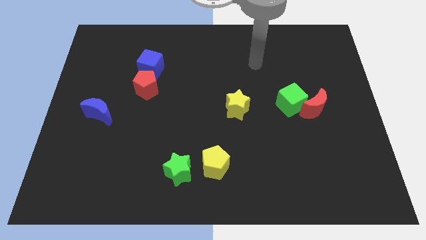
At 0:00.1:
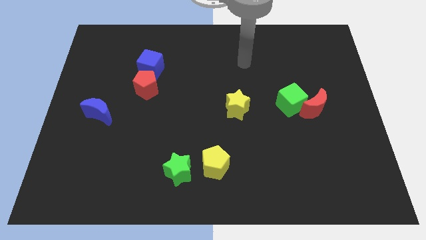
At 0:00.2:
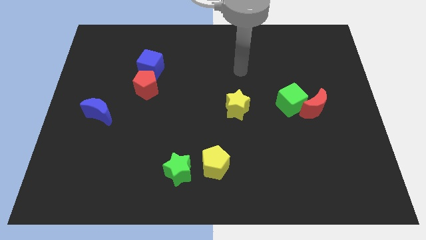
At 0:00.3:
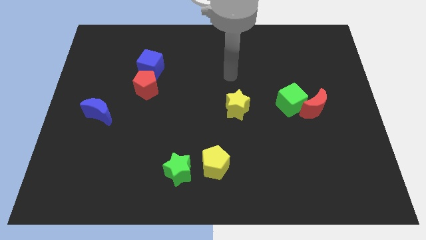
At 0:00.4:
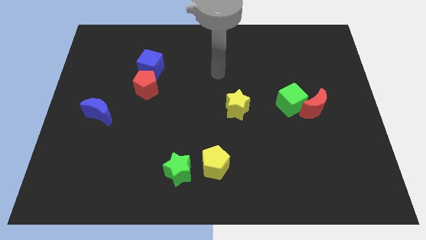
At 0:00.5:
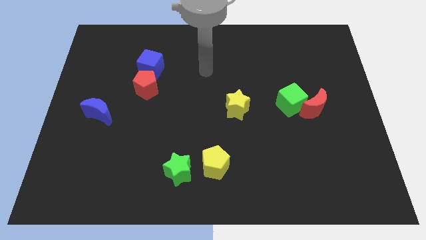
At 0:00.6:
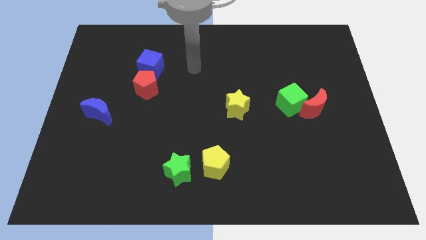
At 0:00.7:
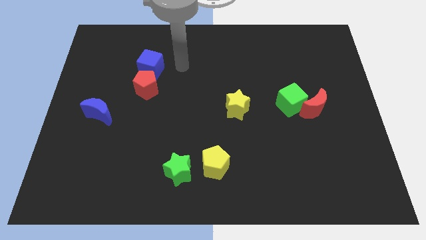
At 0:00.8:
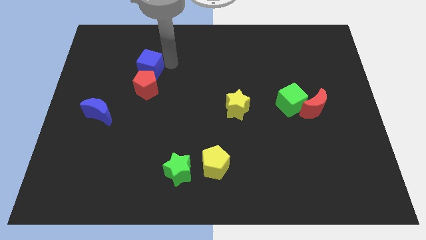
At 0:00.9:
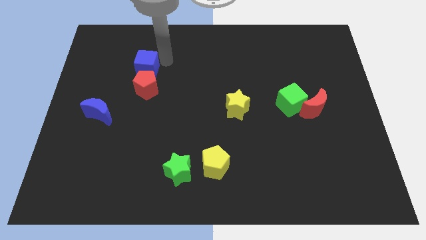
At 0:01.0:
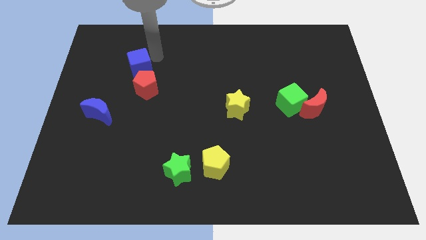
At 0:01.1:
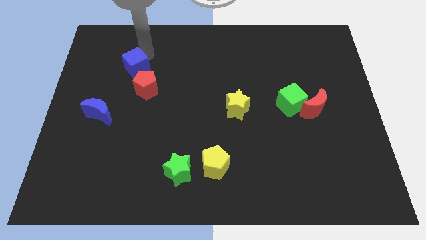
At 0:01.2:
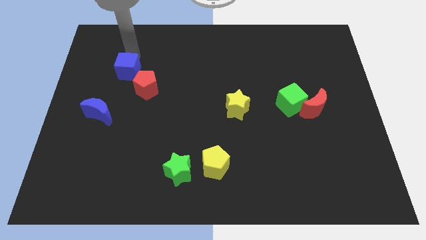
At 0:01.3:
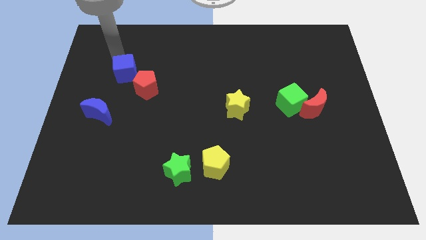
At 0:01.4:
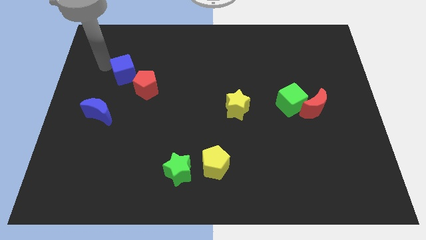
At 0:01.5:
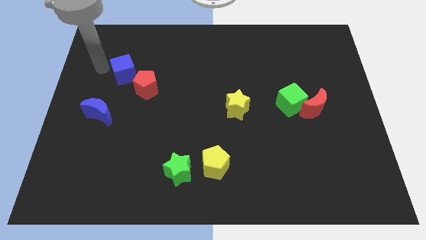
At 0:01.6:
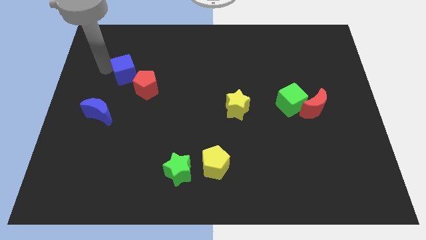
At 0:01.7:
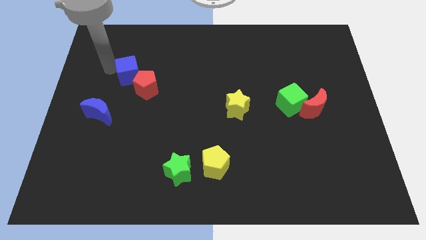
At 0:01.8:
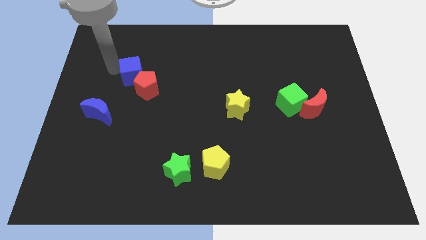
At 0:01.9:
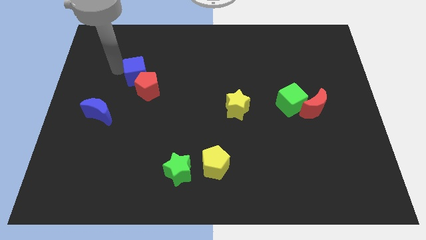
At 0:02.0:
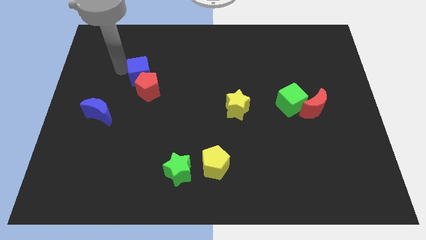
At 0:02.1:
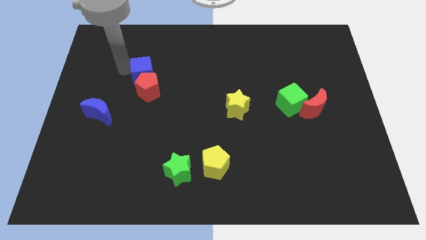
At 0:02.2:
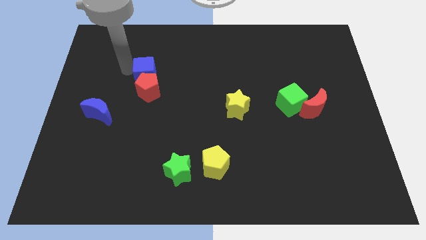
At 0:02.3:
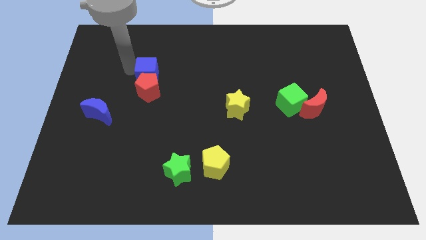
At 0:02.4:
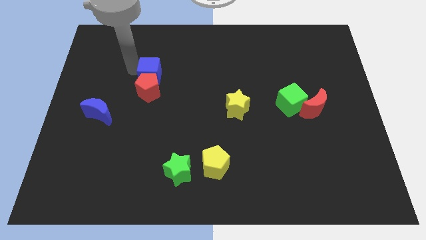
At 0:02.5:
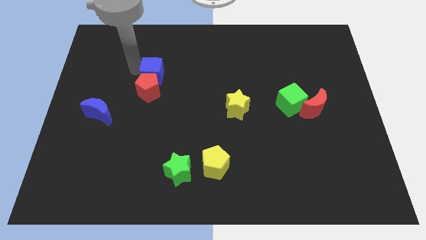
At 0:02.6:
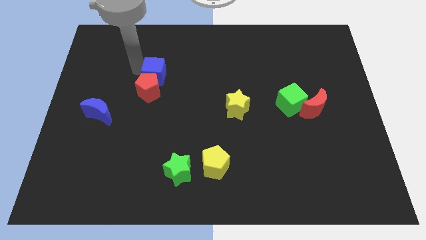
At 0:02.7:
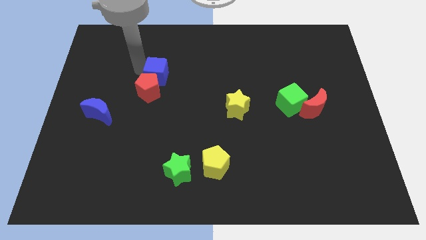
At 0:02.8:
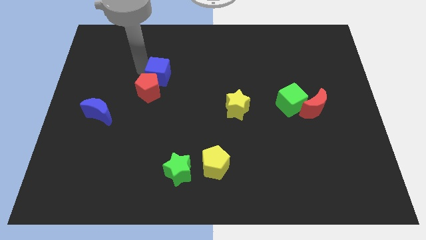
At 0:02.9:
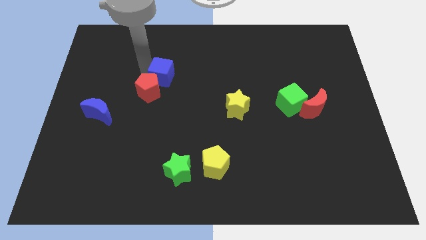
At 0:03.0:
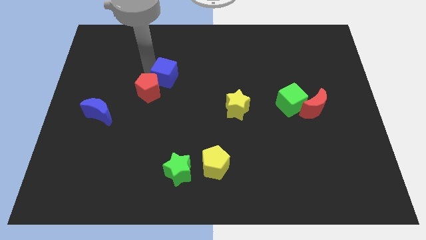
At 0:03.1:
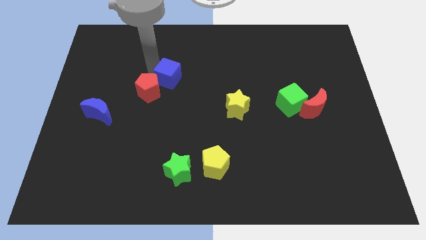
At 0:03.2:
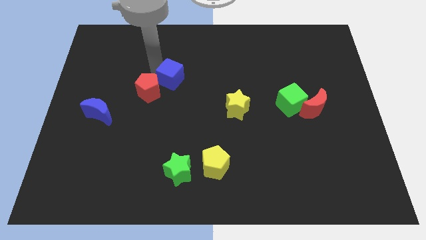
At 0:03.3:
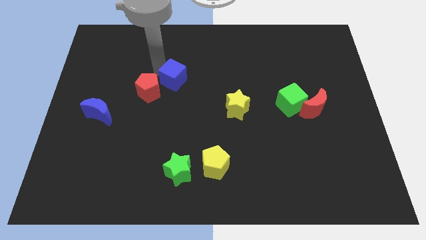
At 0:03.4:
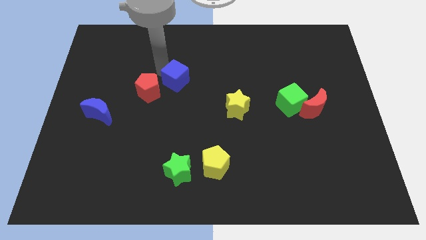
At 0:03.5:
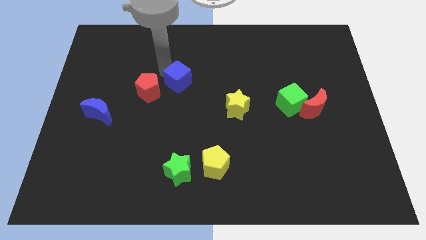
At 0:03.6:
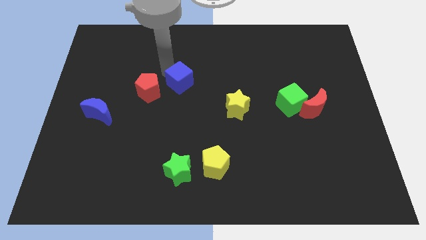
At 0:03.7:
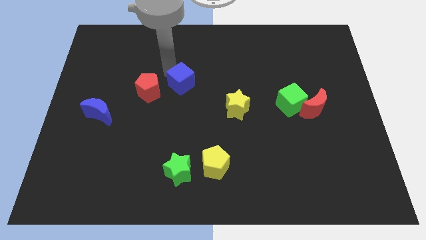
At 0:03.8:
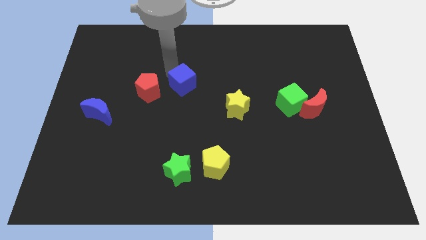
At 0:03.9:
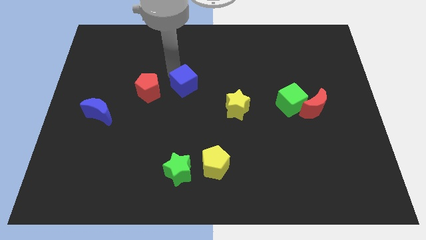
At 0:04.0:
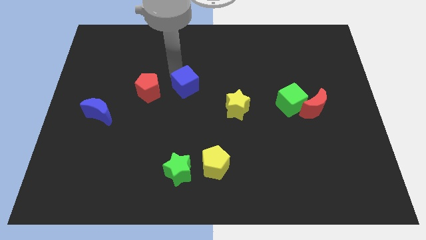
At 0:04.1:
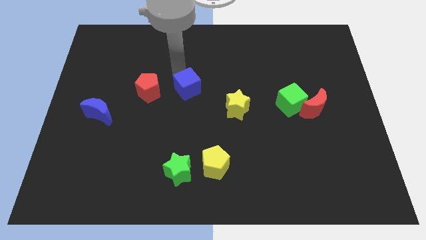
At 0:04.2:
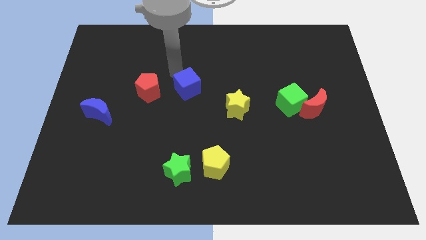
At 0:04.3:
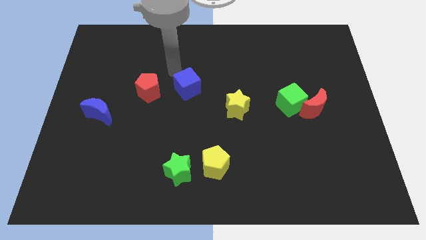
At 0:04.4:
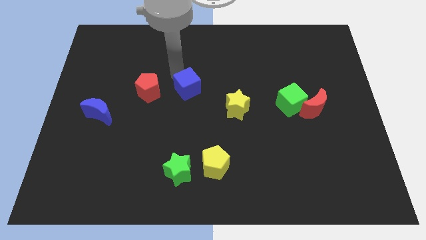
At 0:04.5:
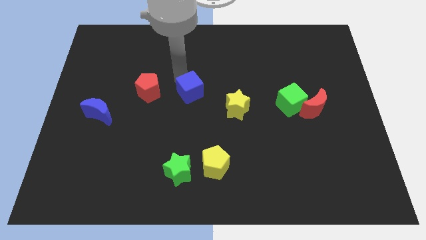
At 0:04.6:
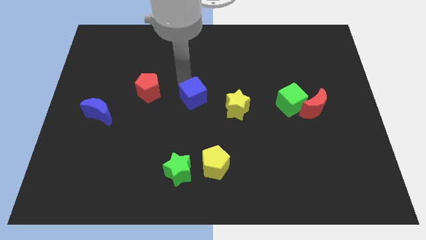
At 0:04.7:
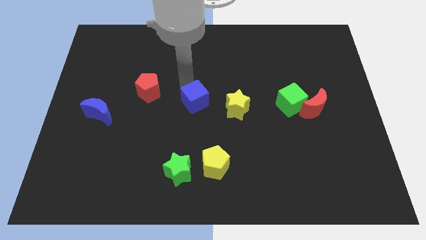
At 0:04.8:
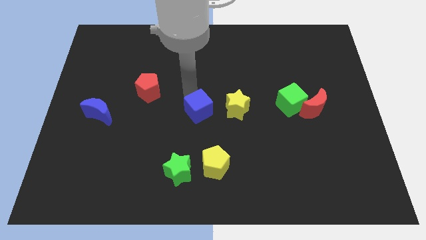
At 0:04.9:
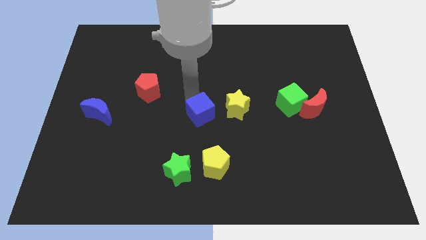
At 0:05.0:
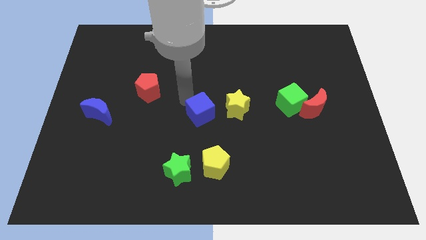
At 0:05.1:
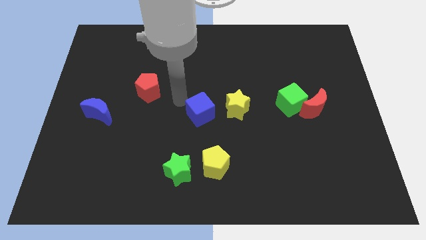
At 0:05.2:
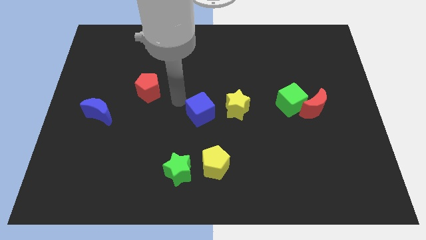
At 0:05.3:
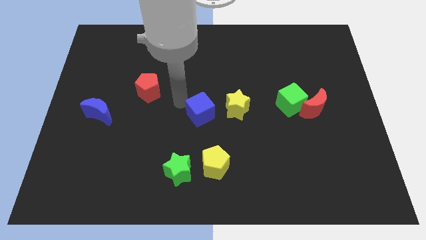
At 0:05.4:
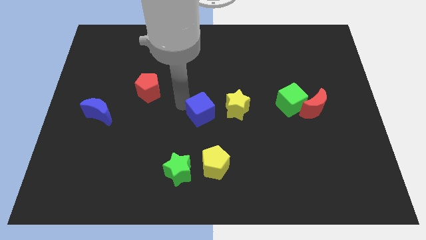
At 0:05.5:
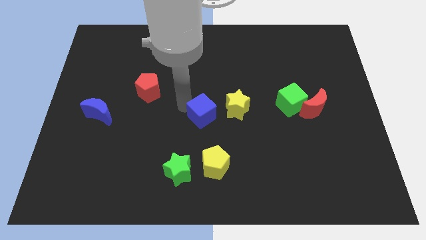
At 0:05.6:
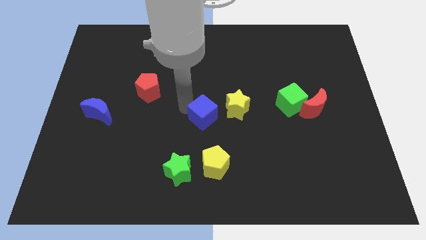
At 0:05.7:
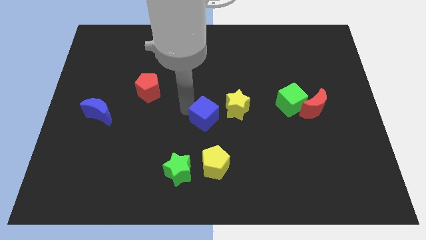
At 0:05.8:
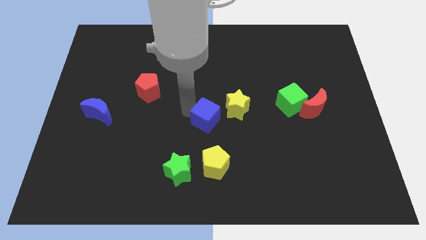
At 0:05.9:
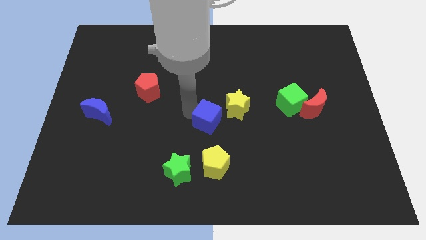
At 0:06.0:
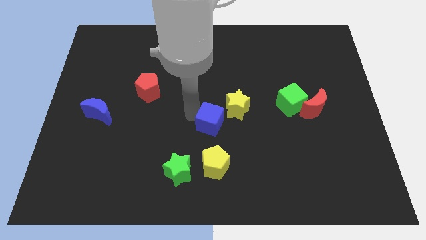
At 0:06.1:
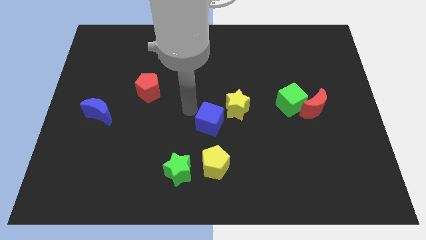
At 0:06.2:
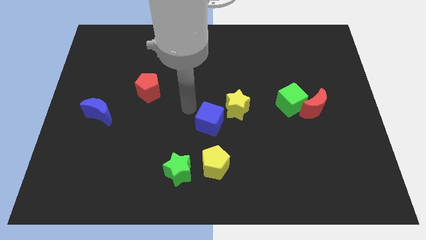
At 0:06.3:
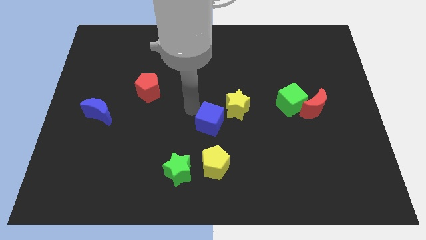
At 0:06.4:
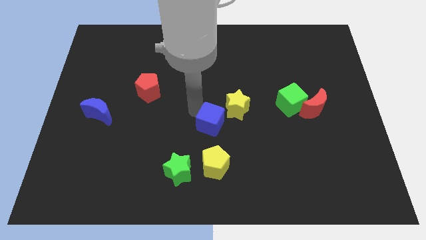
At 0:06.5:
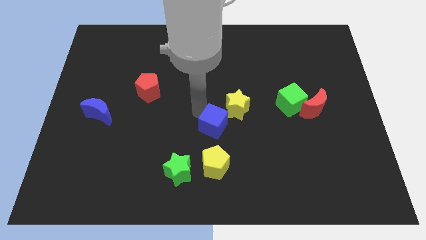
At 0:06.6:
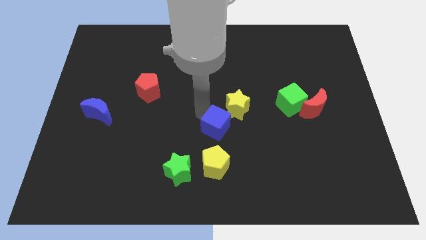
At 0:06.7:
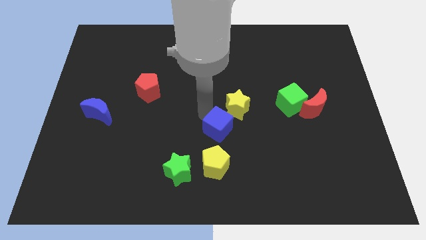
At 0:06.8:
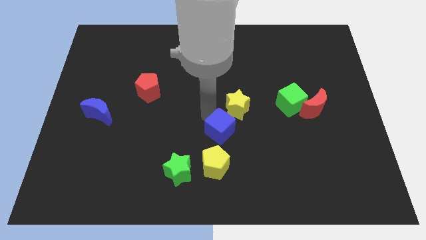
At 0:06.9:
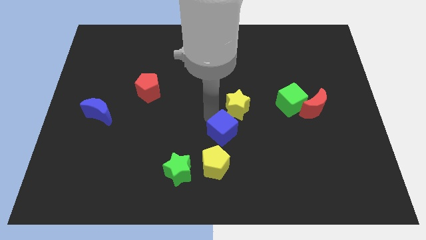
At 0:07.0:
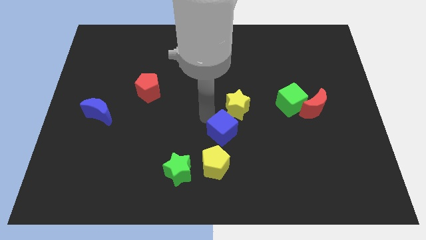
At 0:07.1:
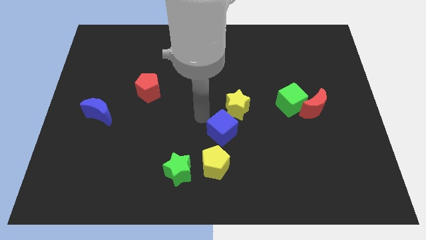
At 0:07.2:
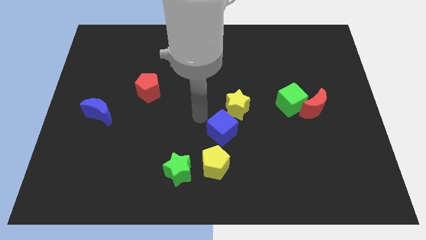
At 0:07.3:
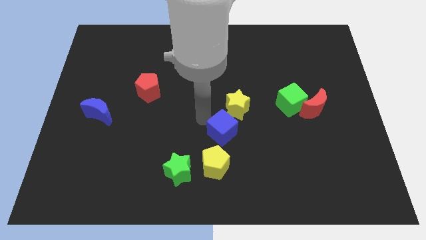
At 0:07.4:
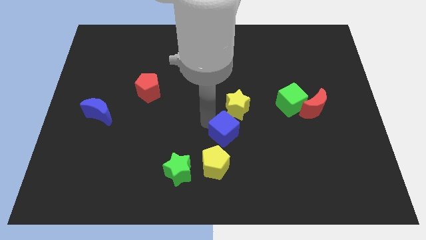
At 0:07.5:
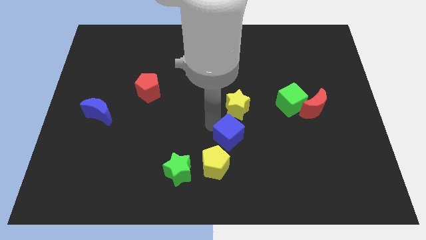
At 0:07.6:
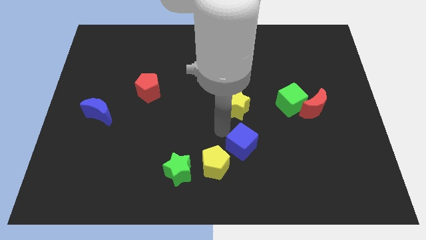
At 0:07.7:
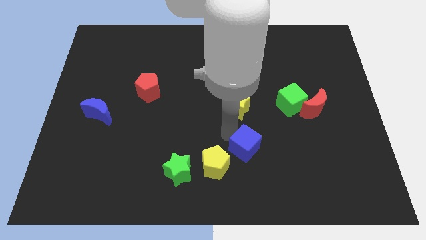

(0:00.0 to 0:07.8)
put the blue cube right of the yellow pentagon
